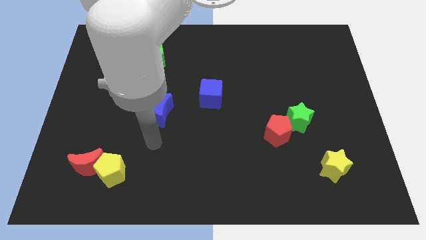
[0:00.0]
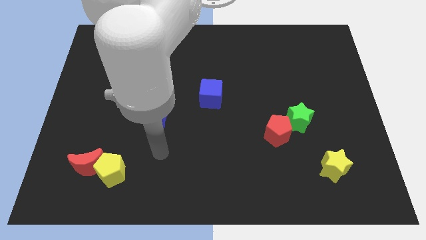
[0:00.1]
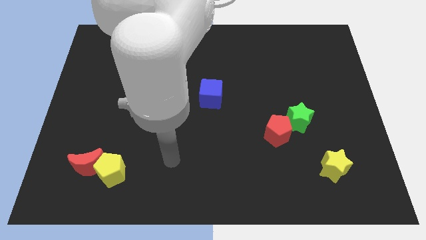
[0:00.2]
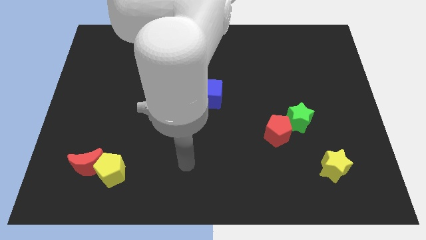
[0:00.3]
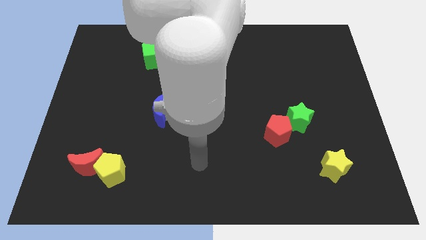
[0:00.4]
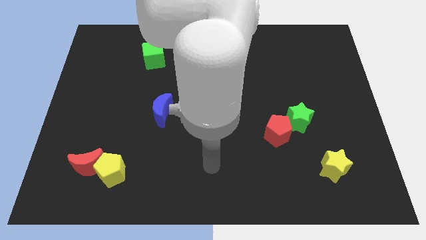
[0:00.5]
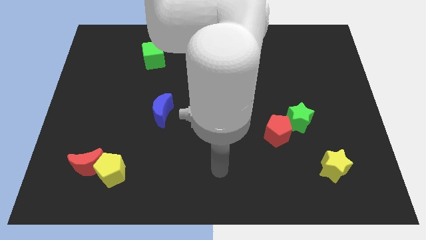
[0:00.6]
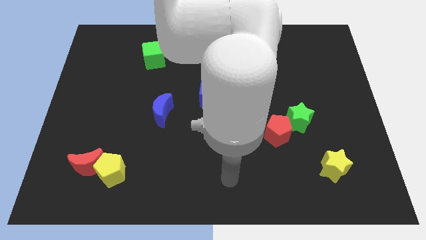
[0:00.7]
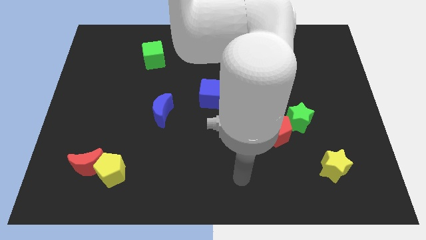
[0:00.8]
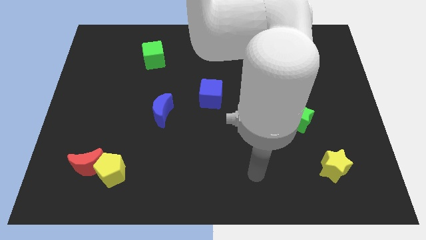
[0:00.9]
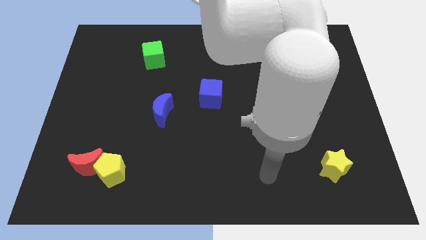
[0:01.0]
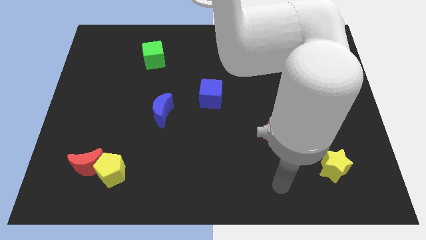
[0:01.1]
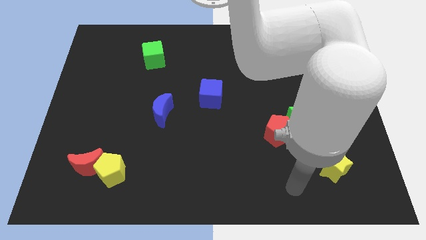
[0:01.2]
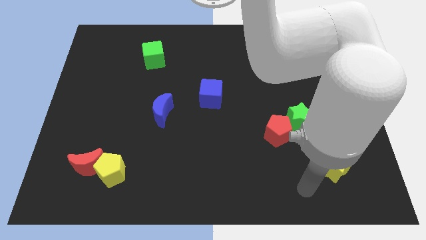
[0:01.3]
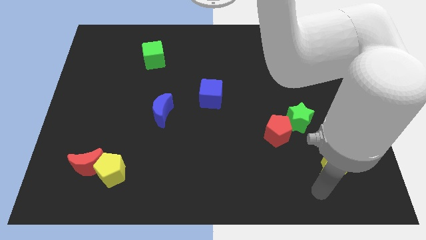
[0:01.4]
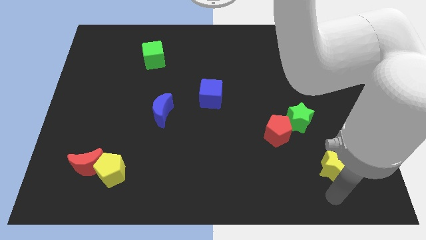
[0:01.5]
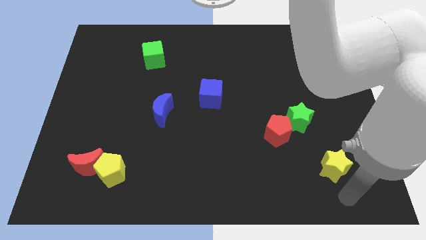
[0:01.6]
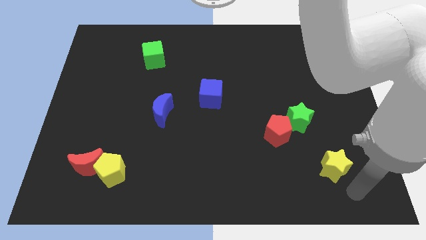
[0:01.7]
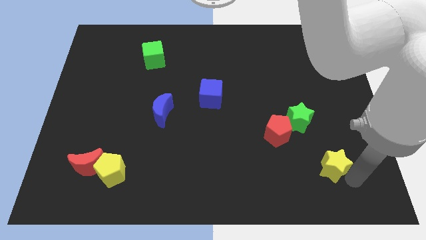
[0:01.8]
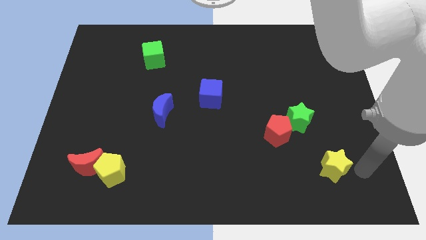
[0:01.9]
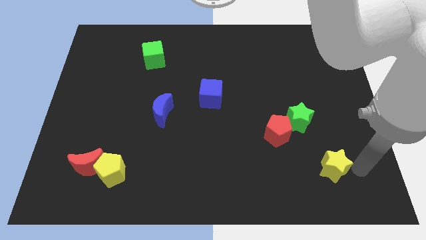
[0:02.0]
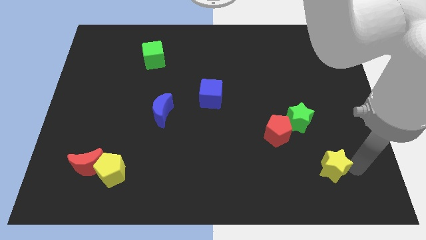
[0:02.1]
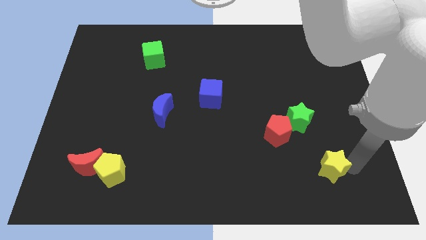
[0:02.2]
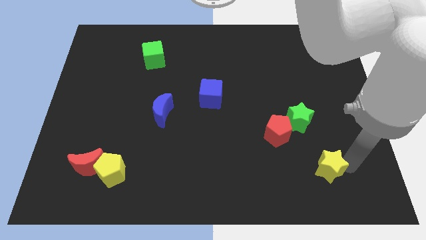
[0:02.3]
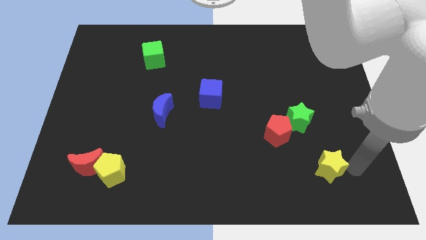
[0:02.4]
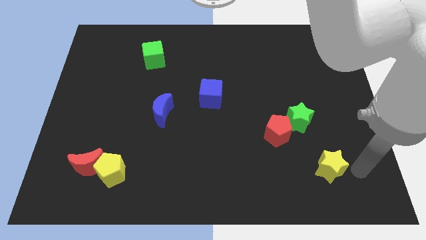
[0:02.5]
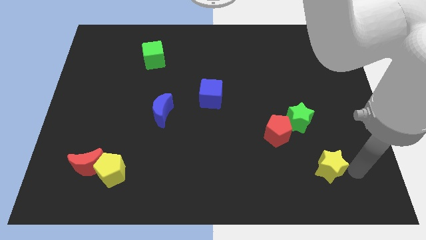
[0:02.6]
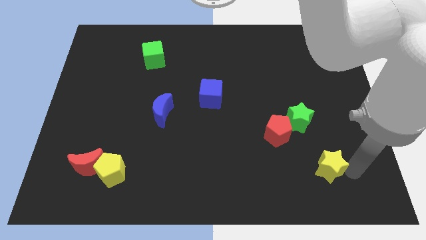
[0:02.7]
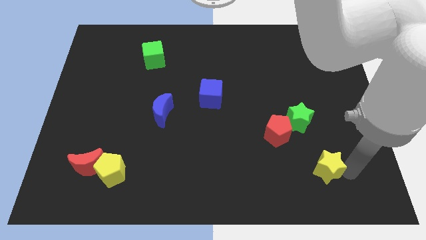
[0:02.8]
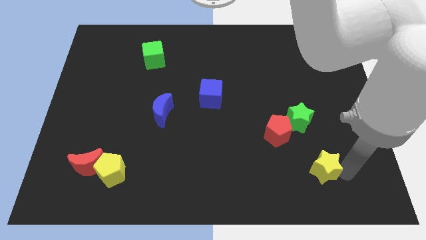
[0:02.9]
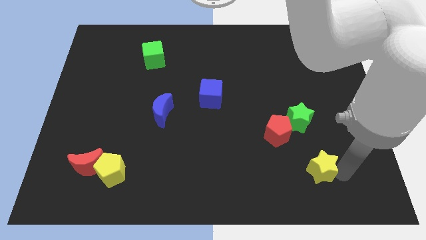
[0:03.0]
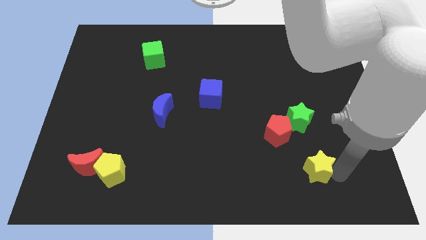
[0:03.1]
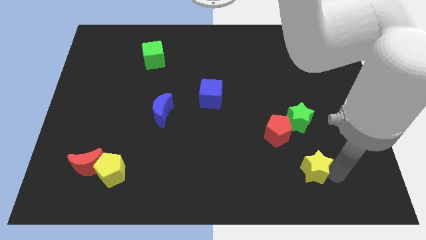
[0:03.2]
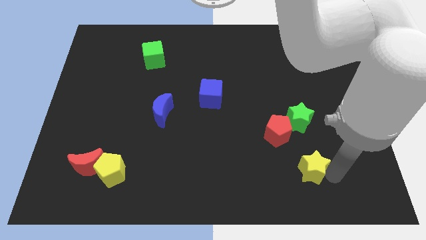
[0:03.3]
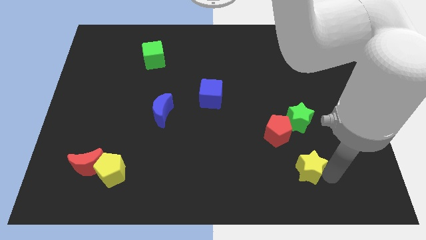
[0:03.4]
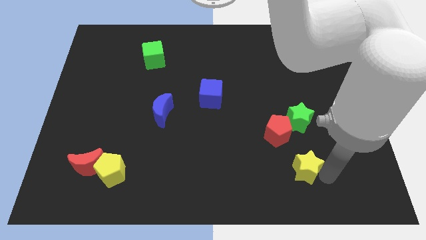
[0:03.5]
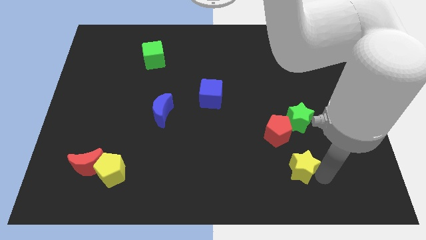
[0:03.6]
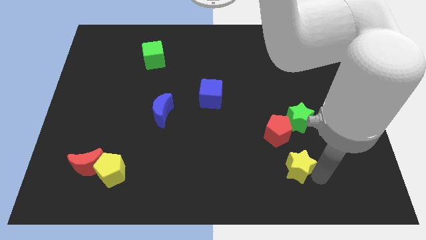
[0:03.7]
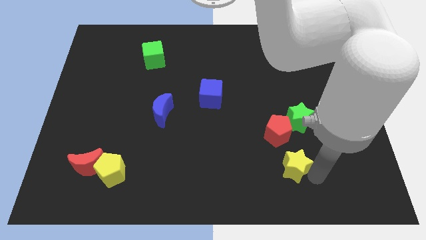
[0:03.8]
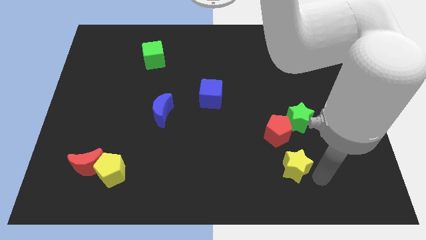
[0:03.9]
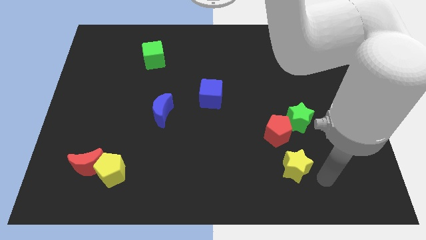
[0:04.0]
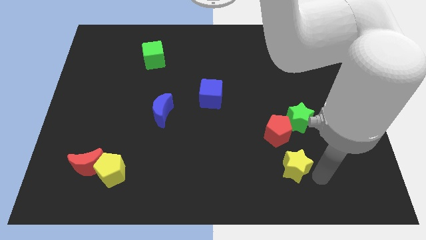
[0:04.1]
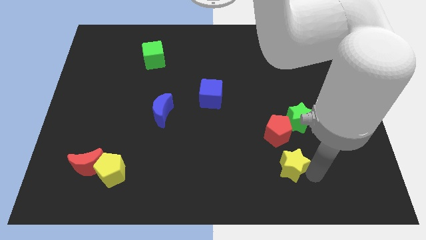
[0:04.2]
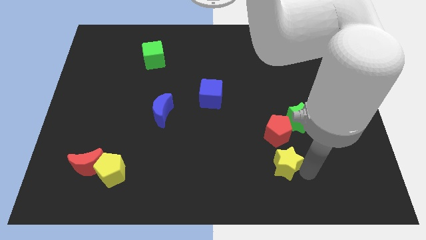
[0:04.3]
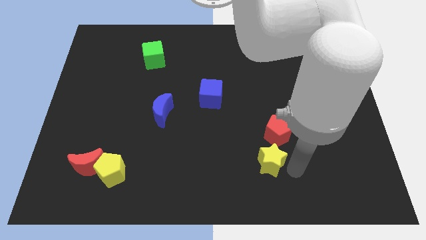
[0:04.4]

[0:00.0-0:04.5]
slide the yellow star up and to the left diagonally a little bit

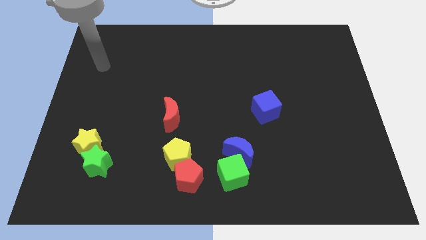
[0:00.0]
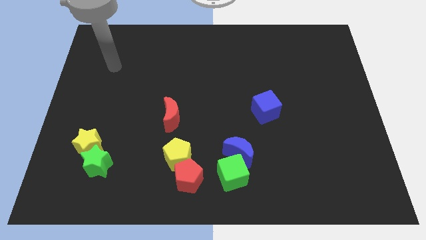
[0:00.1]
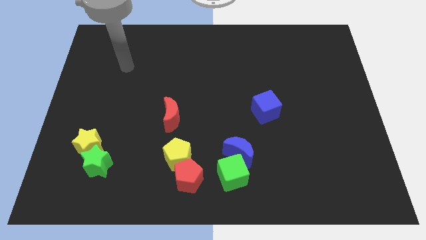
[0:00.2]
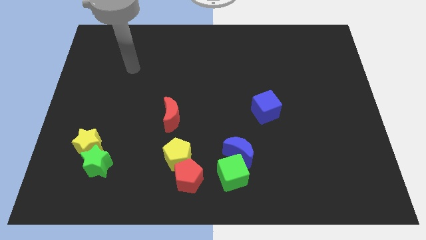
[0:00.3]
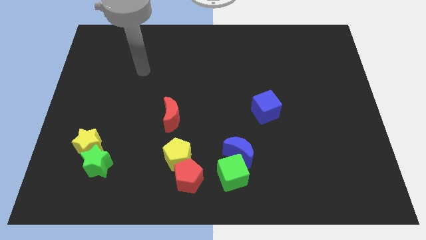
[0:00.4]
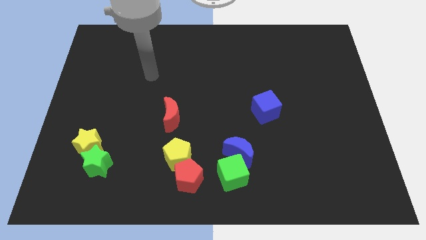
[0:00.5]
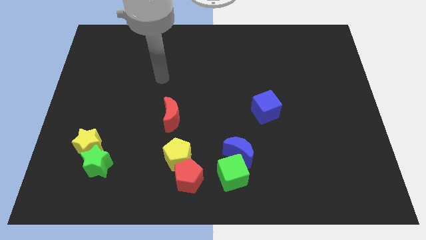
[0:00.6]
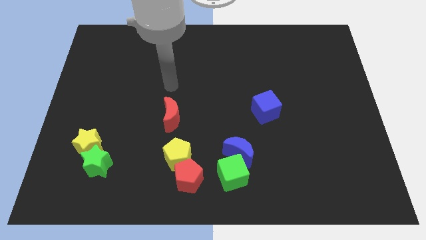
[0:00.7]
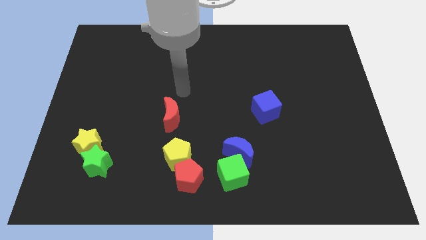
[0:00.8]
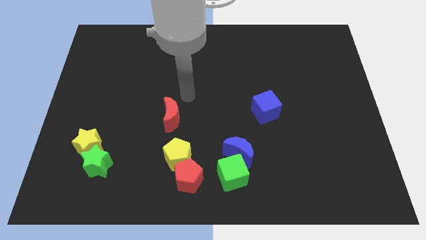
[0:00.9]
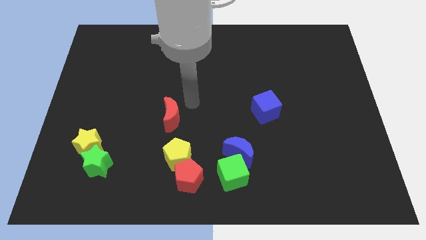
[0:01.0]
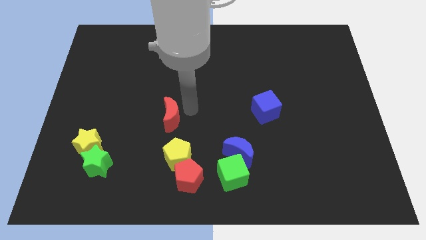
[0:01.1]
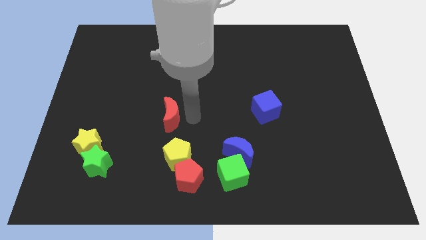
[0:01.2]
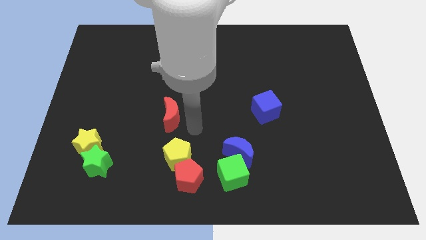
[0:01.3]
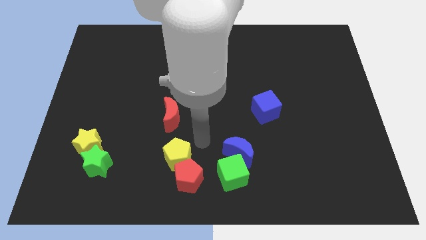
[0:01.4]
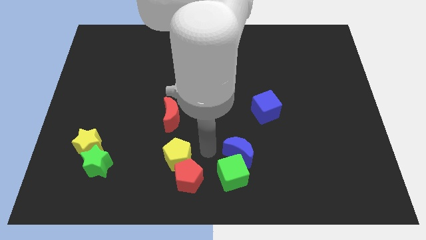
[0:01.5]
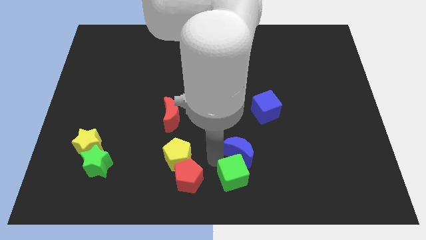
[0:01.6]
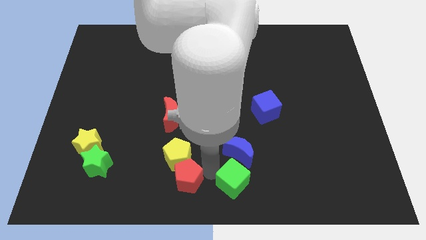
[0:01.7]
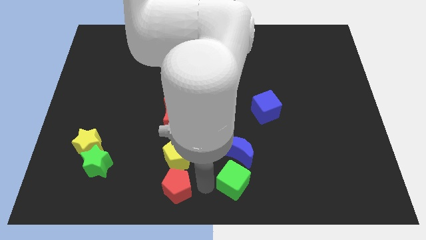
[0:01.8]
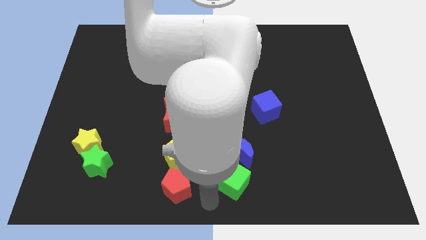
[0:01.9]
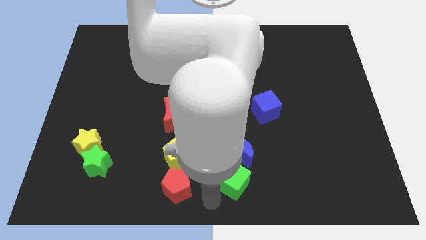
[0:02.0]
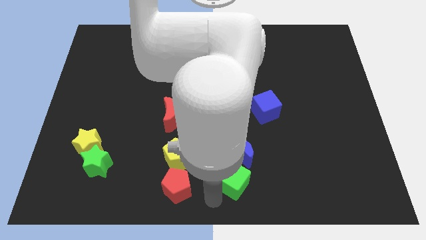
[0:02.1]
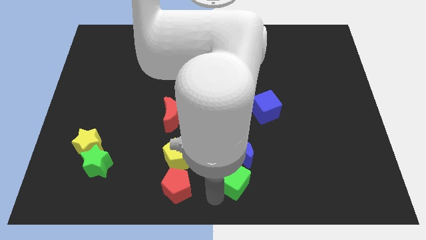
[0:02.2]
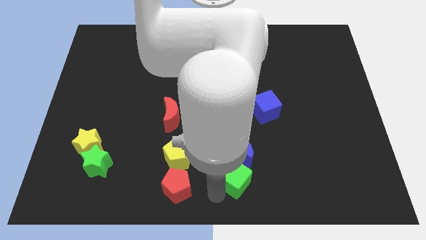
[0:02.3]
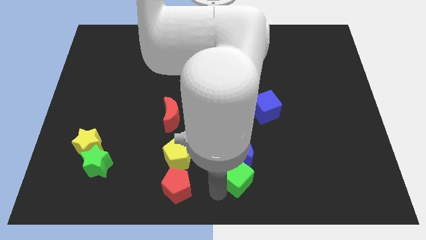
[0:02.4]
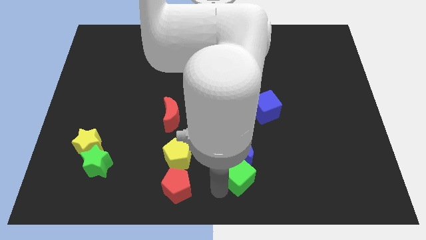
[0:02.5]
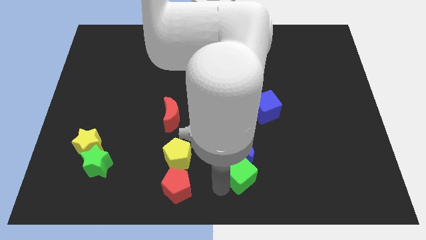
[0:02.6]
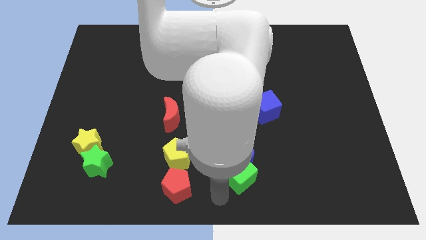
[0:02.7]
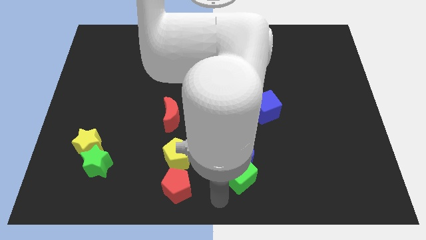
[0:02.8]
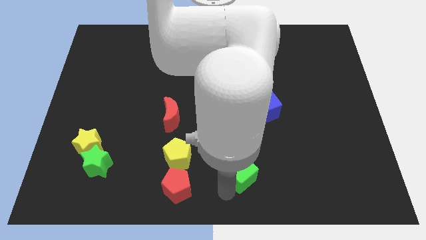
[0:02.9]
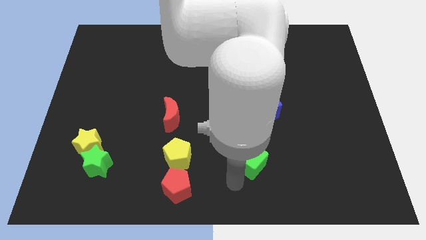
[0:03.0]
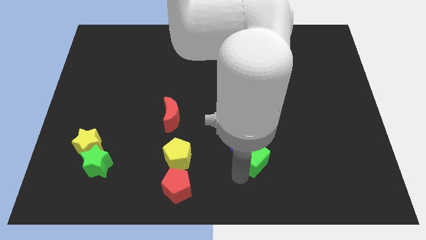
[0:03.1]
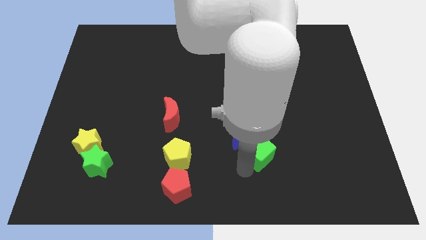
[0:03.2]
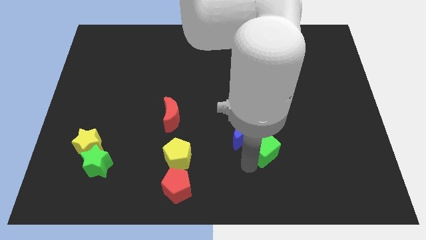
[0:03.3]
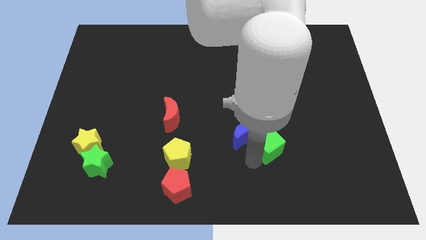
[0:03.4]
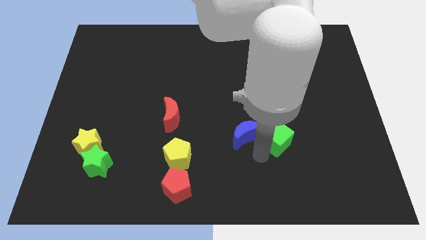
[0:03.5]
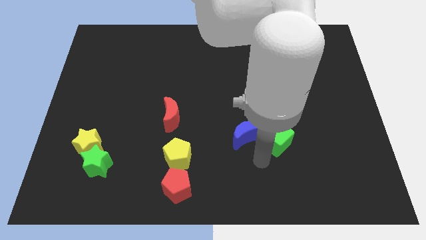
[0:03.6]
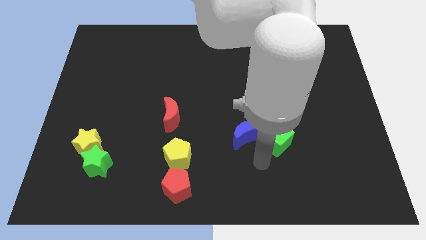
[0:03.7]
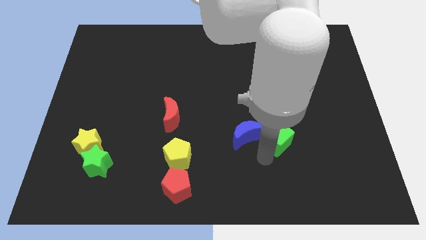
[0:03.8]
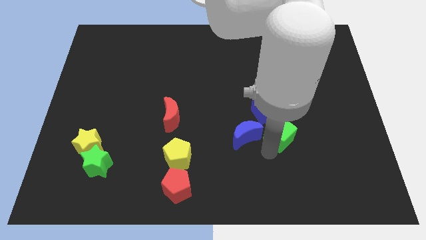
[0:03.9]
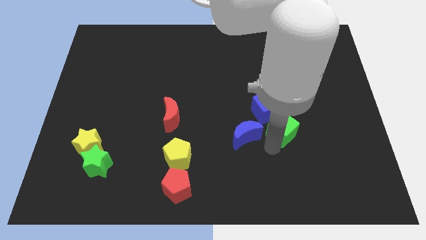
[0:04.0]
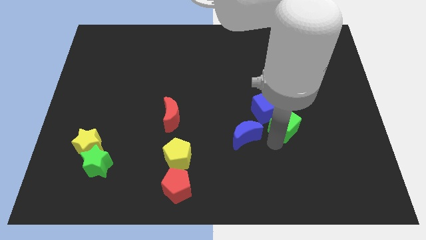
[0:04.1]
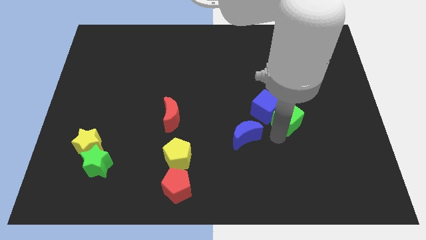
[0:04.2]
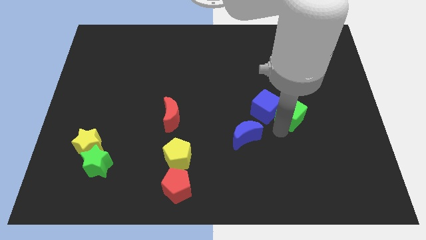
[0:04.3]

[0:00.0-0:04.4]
move the green cube upwards and then to the right
